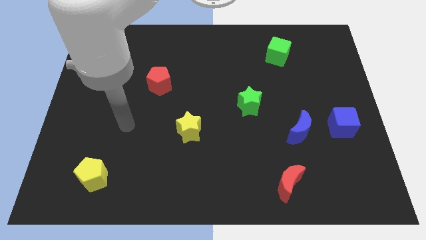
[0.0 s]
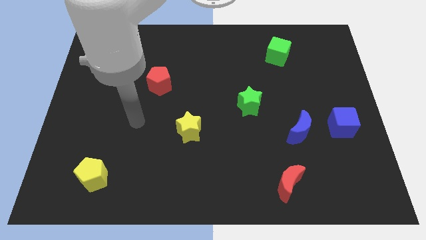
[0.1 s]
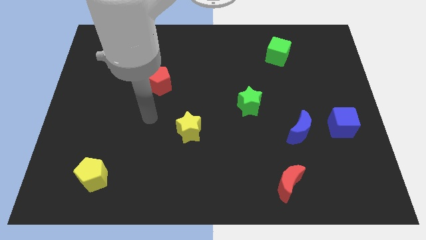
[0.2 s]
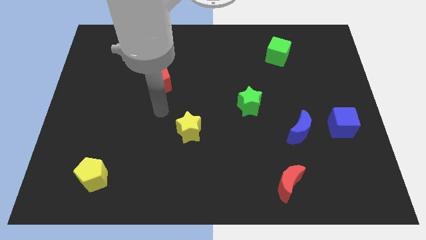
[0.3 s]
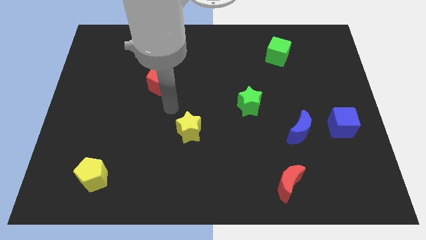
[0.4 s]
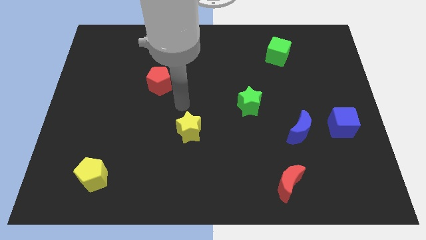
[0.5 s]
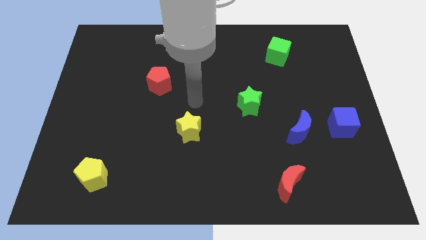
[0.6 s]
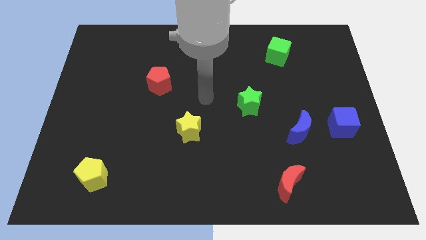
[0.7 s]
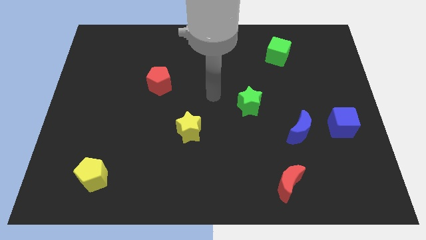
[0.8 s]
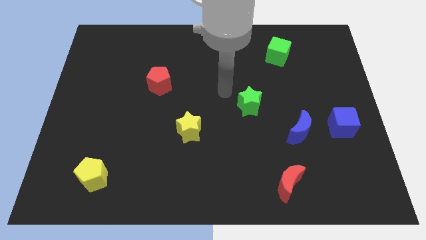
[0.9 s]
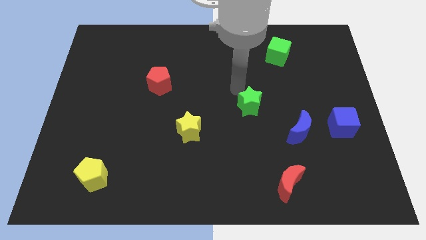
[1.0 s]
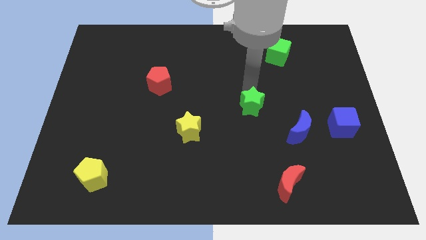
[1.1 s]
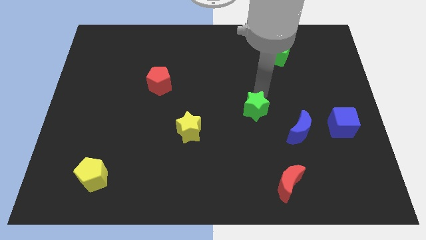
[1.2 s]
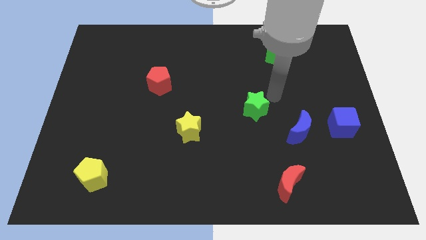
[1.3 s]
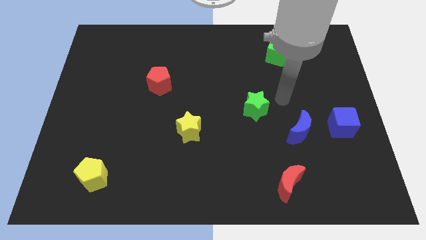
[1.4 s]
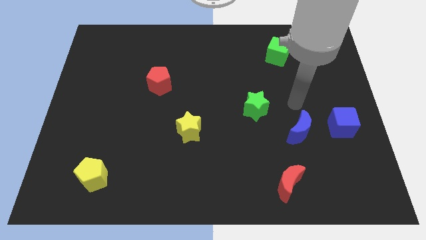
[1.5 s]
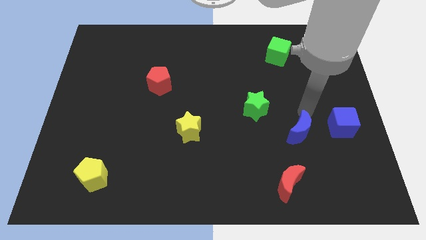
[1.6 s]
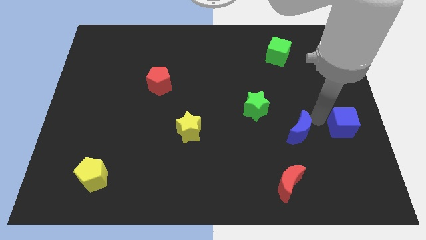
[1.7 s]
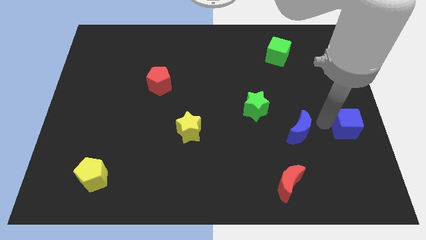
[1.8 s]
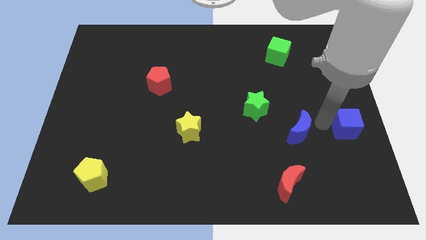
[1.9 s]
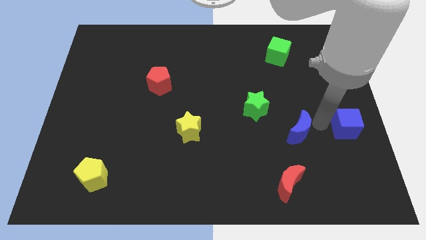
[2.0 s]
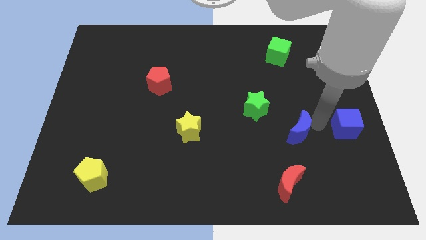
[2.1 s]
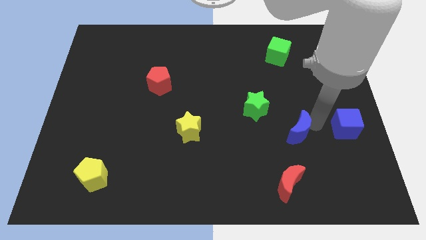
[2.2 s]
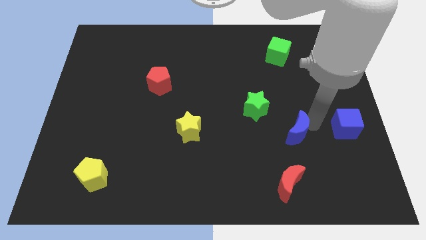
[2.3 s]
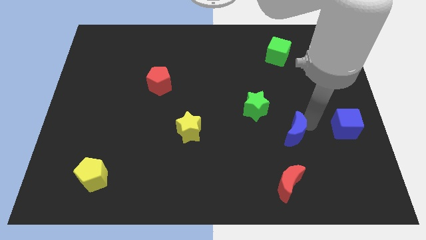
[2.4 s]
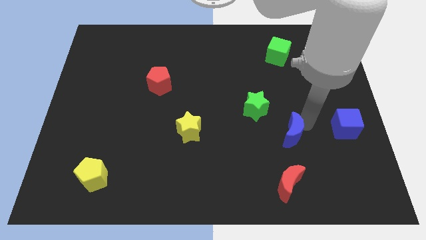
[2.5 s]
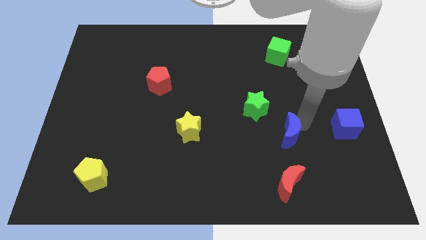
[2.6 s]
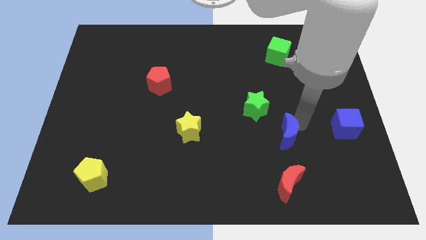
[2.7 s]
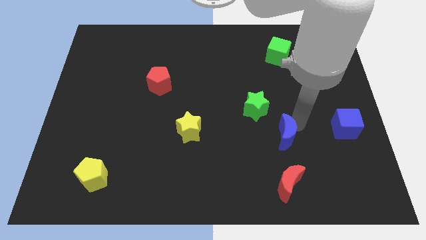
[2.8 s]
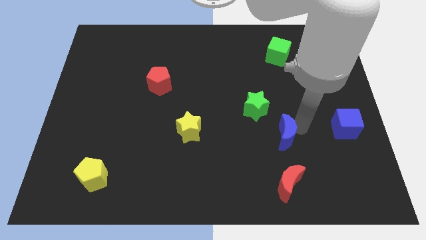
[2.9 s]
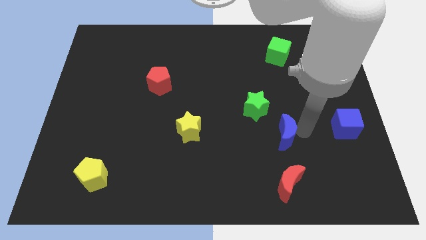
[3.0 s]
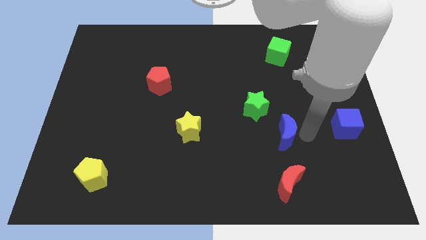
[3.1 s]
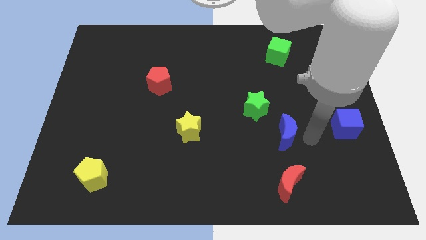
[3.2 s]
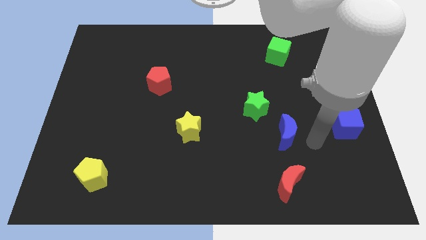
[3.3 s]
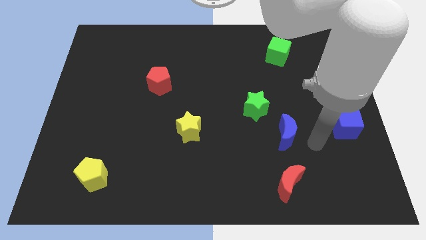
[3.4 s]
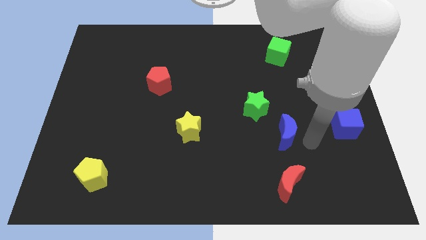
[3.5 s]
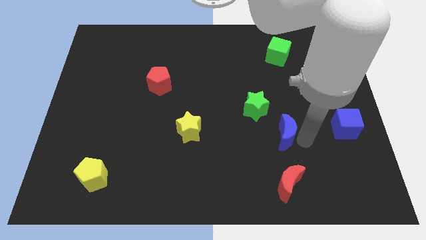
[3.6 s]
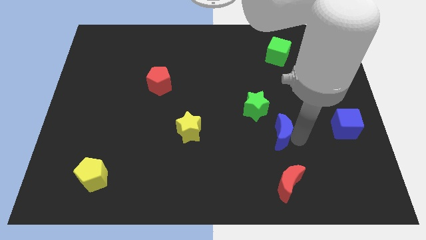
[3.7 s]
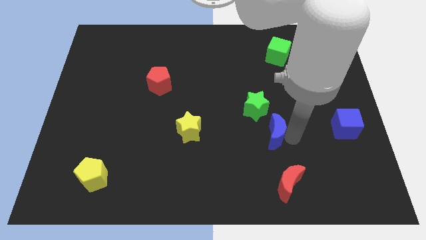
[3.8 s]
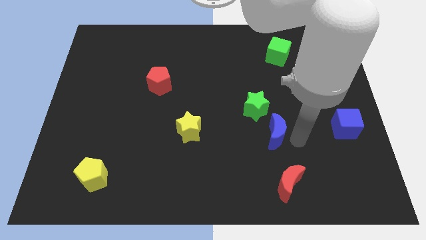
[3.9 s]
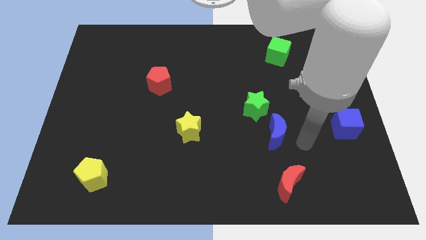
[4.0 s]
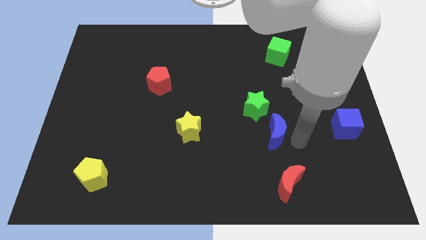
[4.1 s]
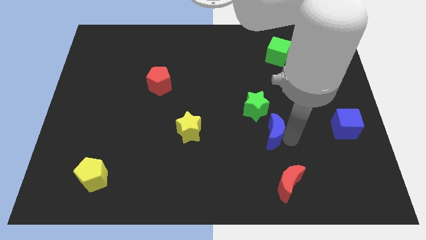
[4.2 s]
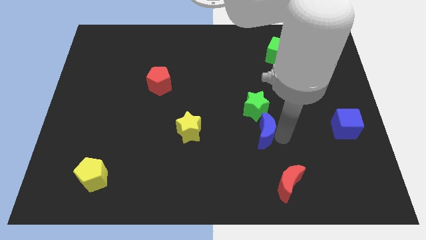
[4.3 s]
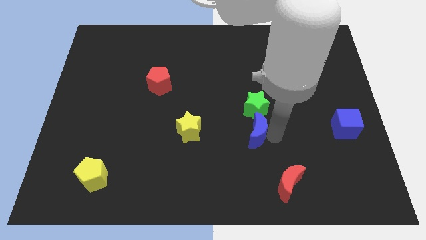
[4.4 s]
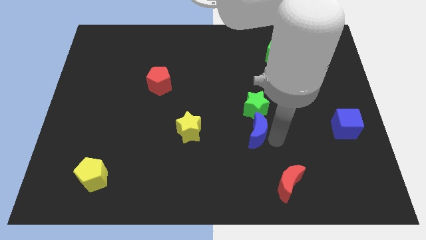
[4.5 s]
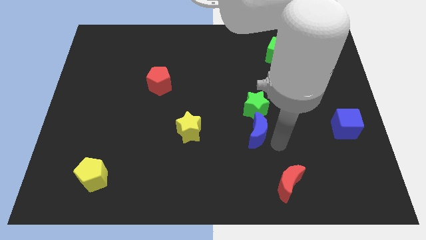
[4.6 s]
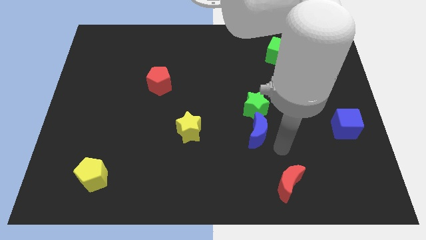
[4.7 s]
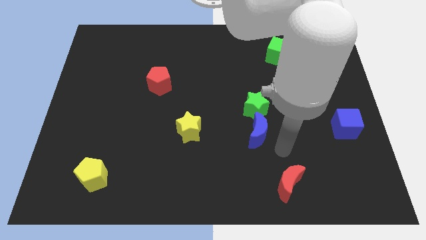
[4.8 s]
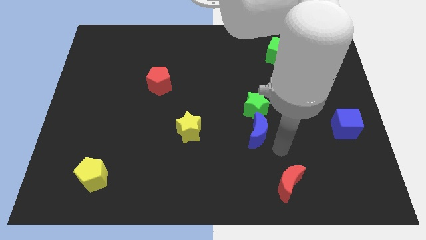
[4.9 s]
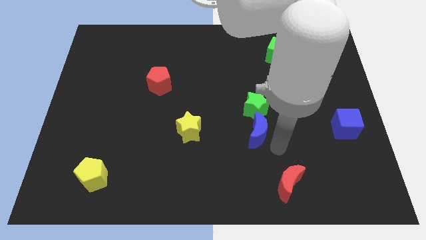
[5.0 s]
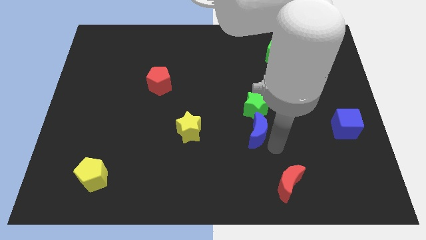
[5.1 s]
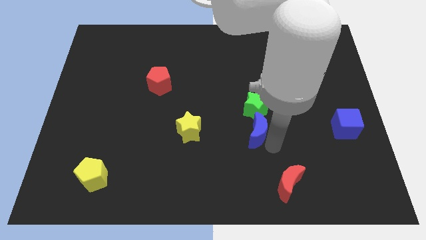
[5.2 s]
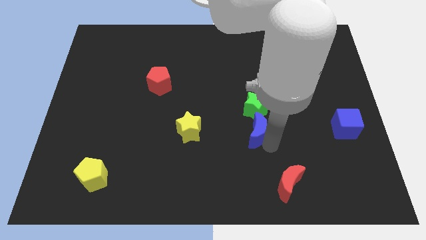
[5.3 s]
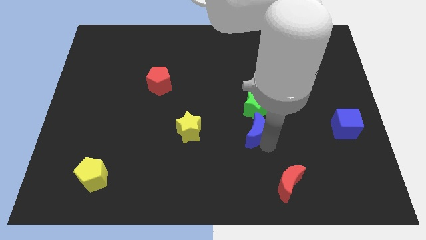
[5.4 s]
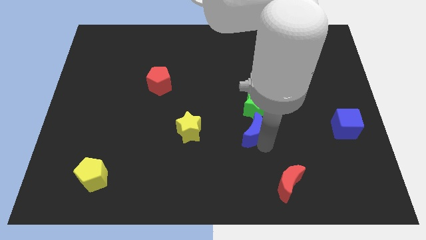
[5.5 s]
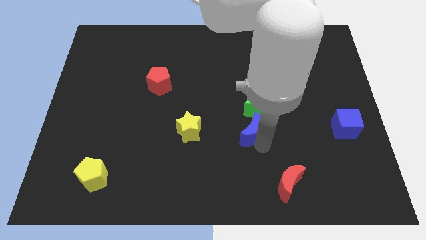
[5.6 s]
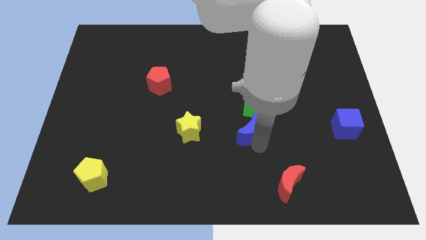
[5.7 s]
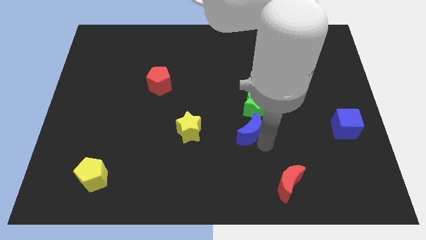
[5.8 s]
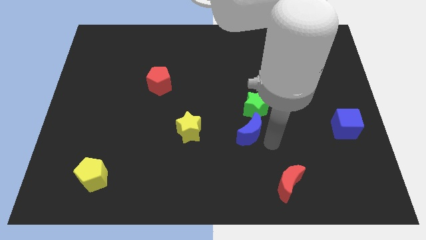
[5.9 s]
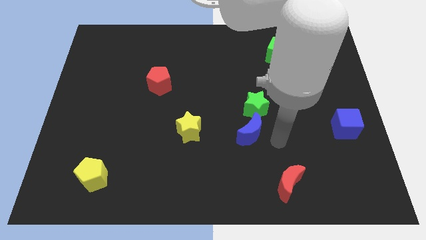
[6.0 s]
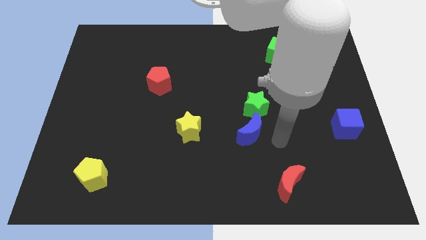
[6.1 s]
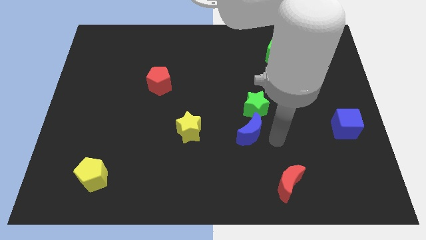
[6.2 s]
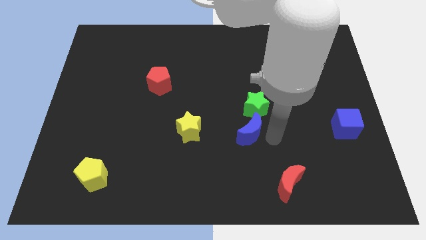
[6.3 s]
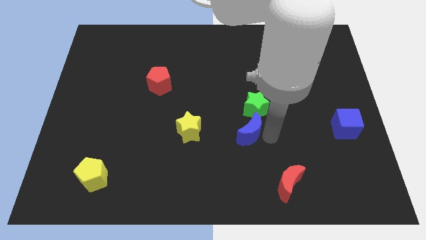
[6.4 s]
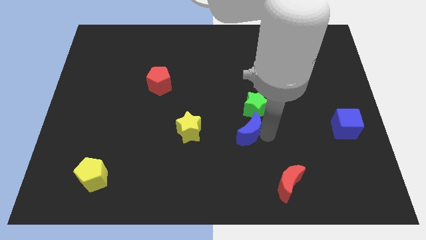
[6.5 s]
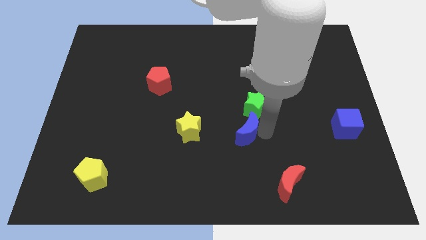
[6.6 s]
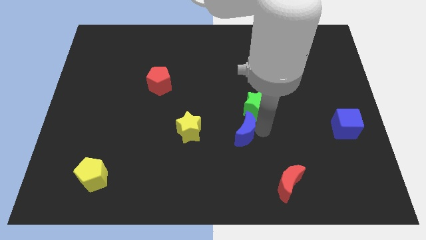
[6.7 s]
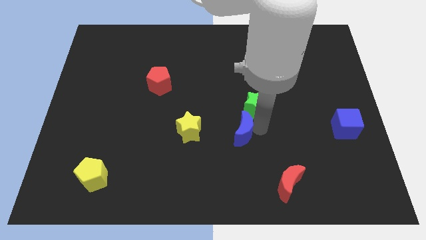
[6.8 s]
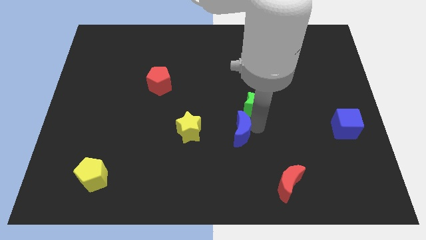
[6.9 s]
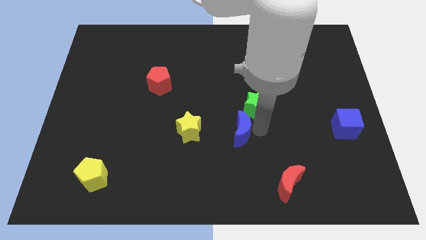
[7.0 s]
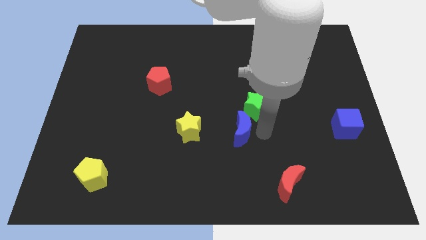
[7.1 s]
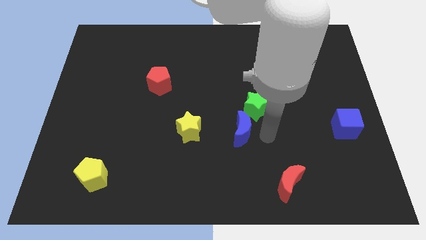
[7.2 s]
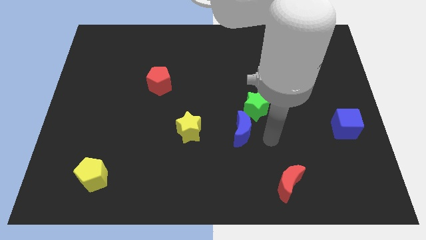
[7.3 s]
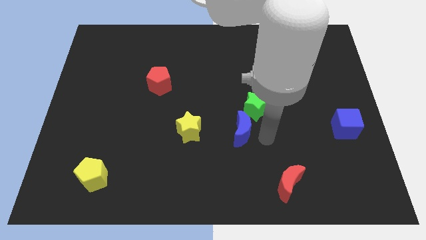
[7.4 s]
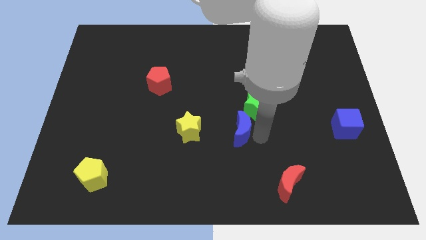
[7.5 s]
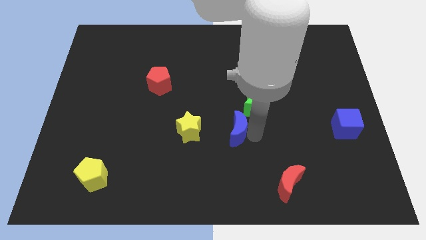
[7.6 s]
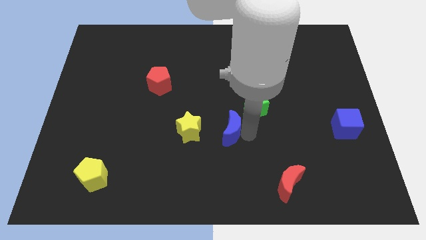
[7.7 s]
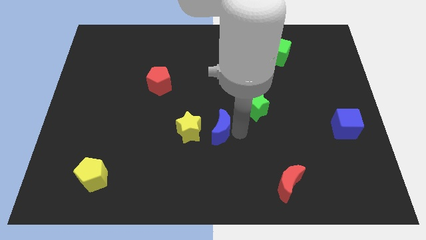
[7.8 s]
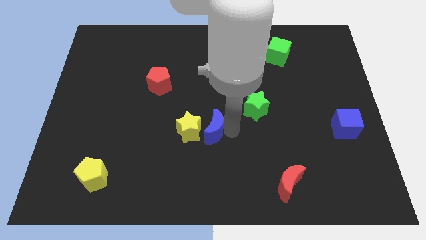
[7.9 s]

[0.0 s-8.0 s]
push the blue moon close to the yellow star

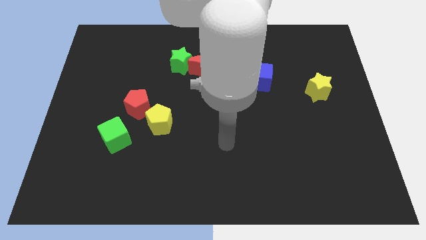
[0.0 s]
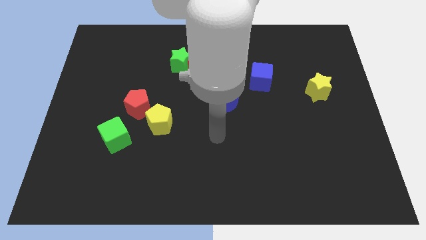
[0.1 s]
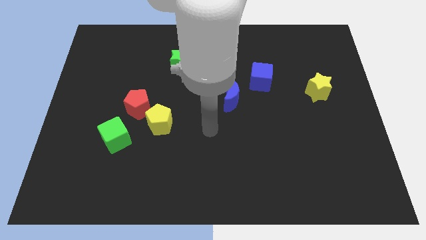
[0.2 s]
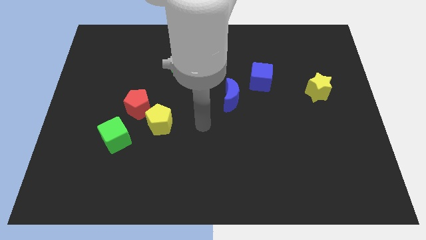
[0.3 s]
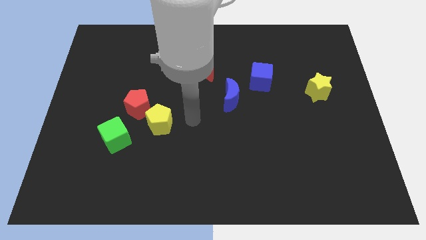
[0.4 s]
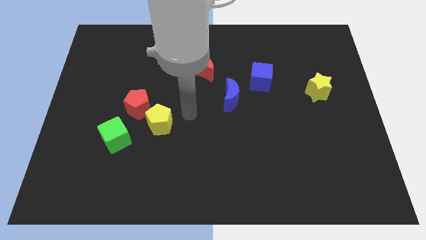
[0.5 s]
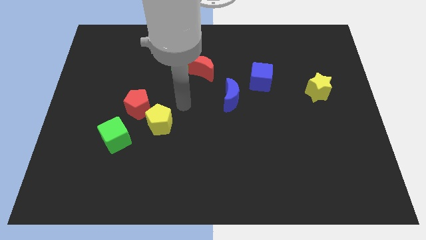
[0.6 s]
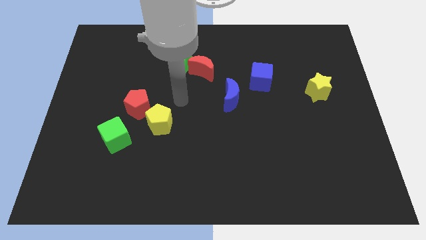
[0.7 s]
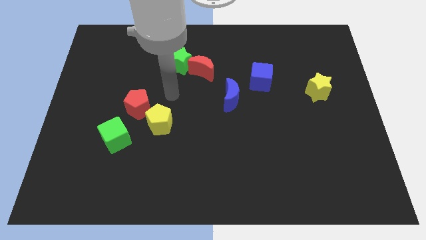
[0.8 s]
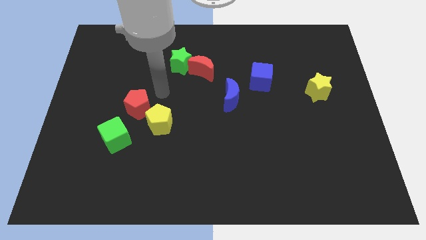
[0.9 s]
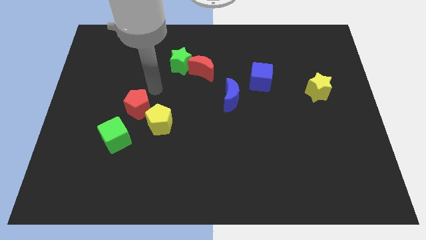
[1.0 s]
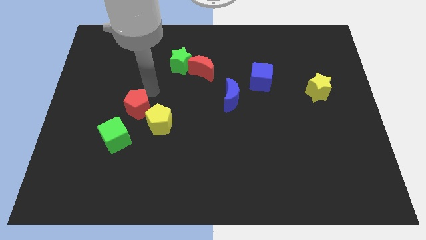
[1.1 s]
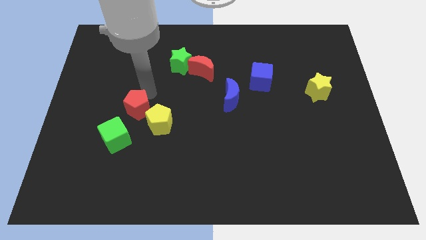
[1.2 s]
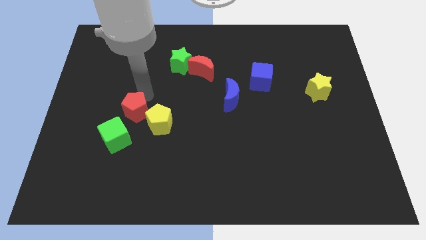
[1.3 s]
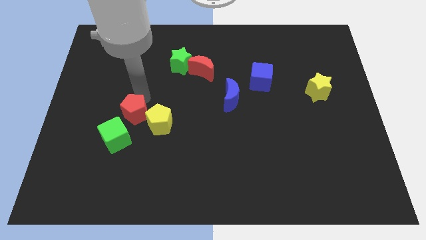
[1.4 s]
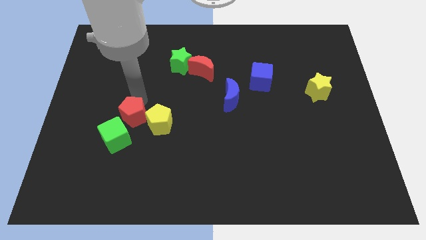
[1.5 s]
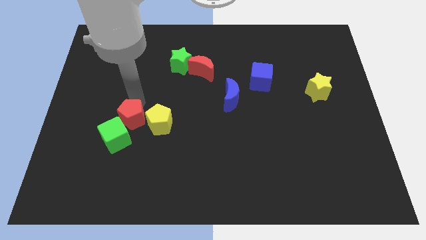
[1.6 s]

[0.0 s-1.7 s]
push the red pentagon next to the green cube
